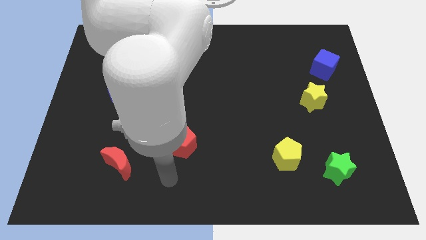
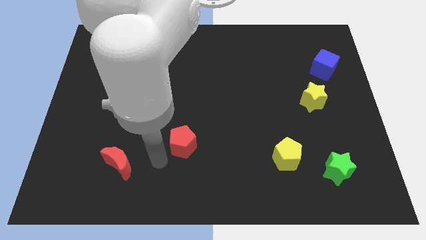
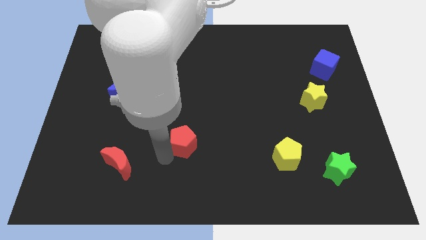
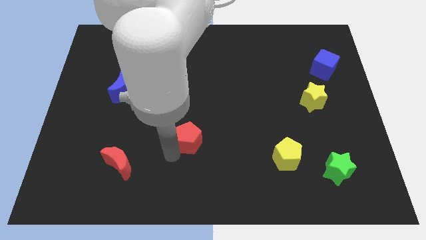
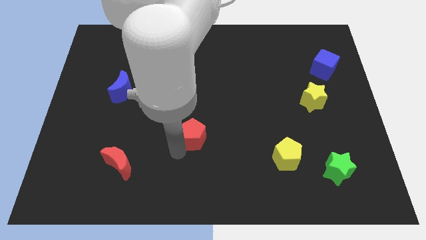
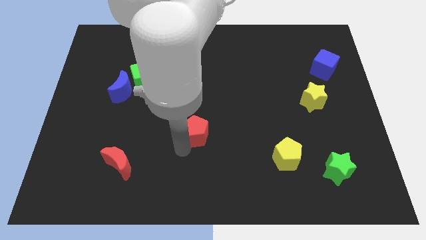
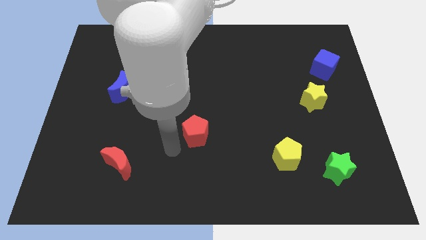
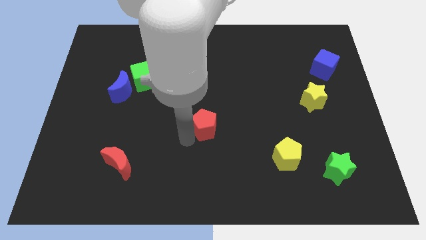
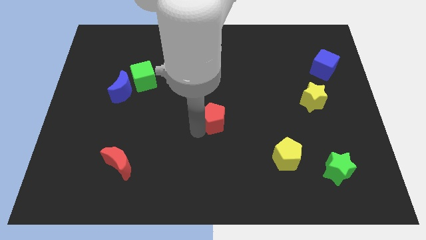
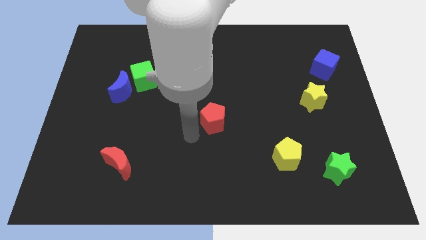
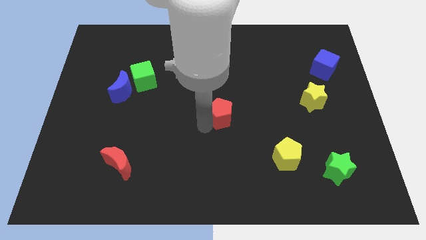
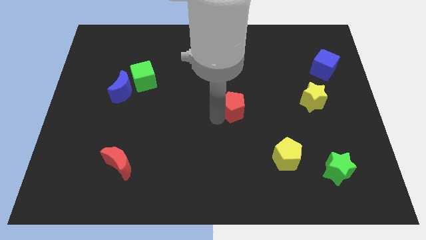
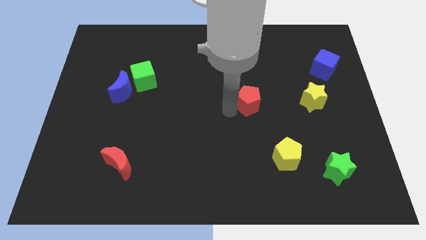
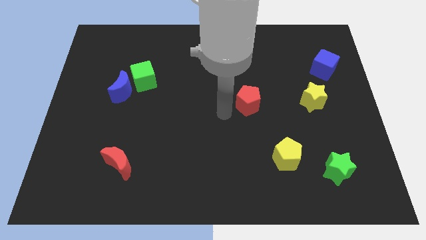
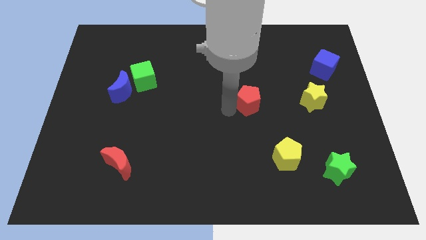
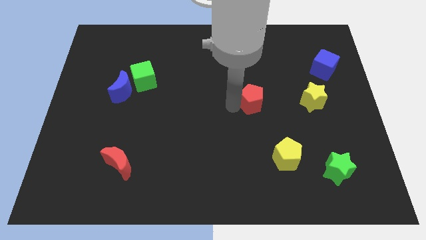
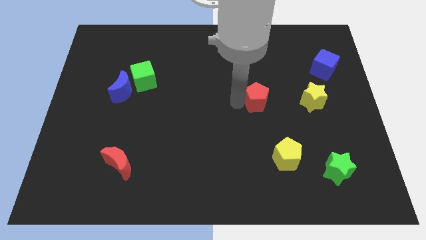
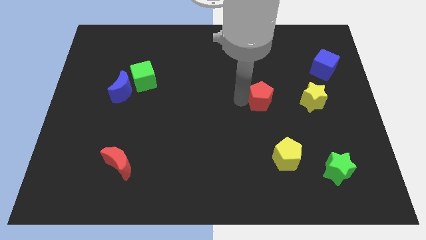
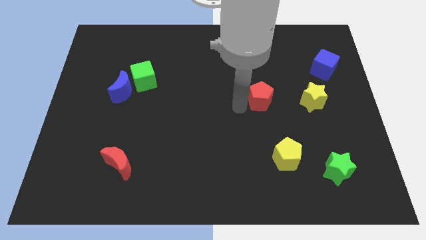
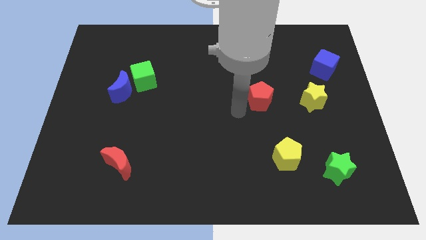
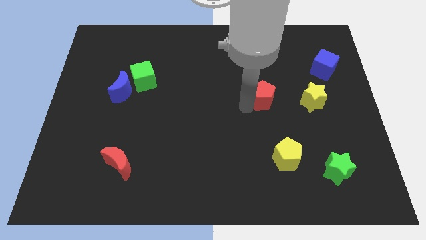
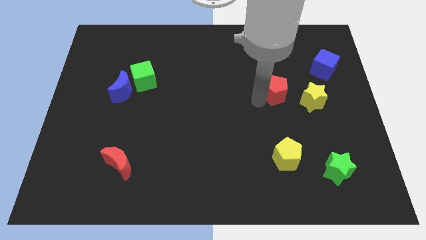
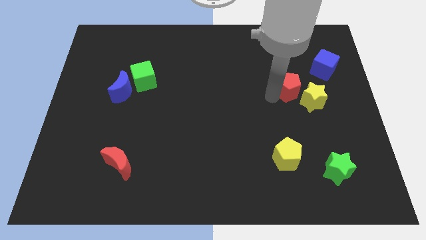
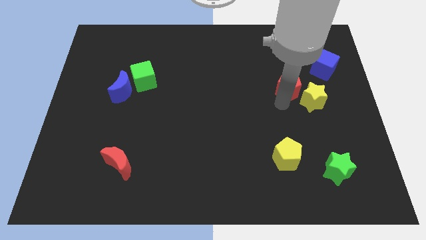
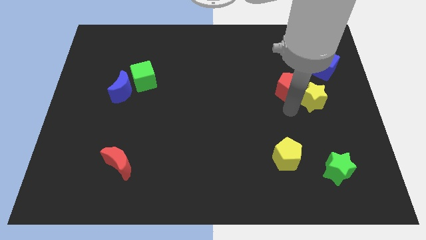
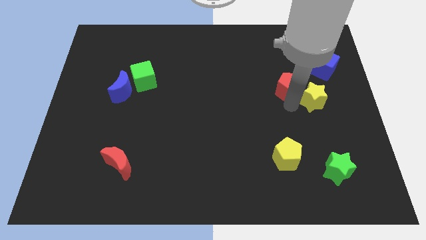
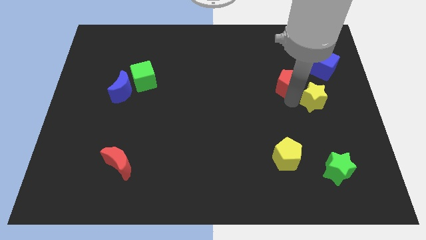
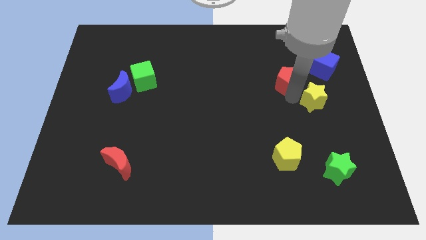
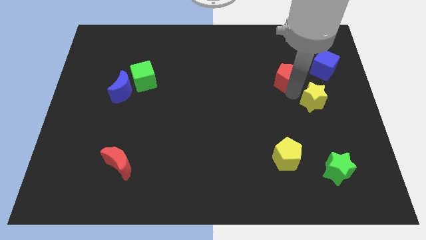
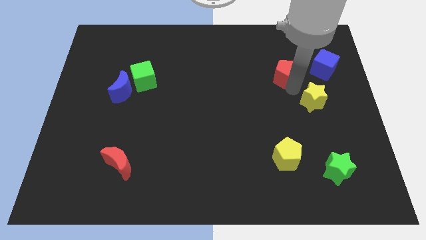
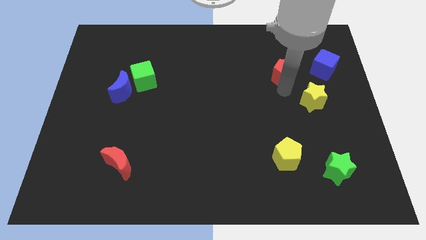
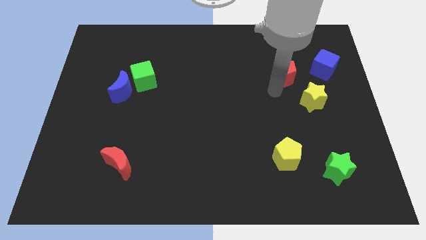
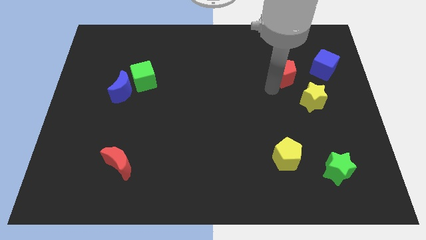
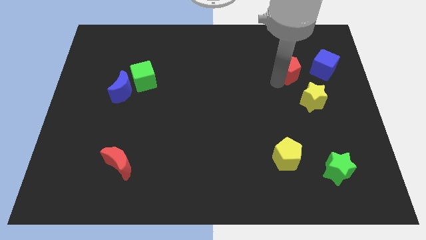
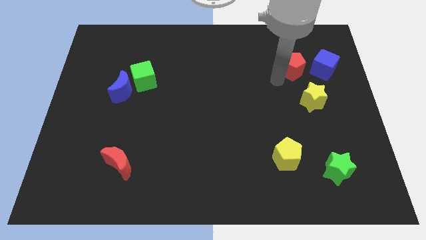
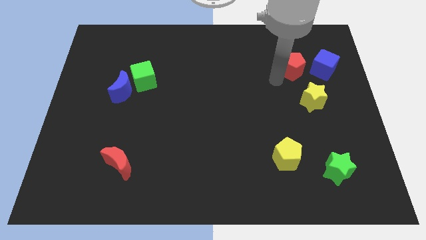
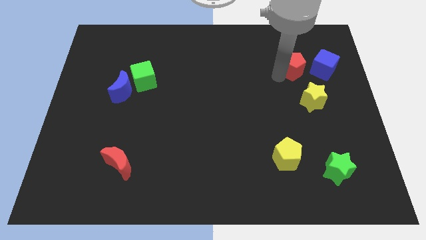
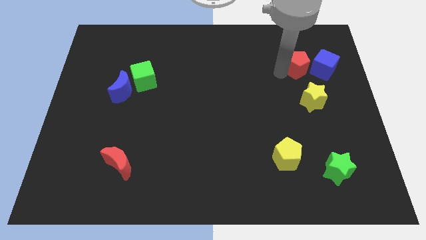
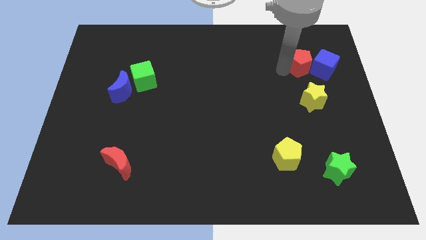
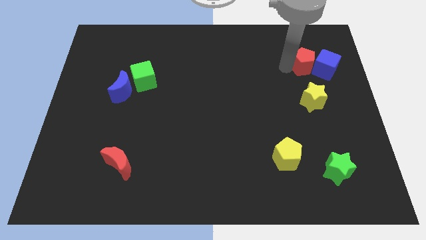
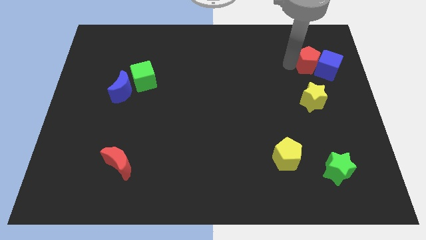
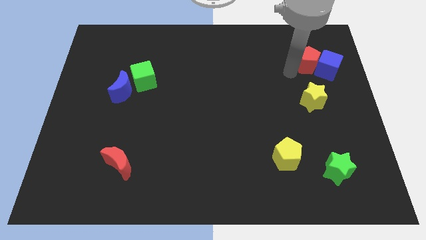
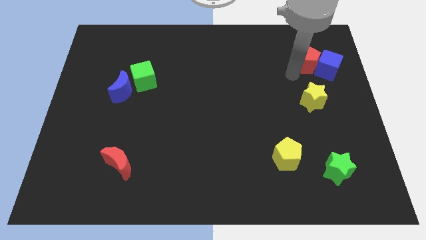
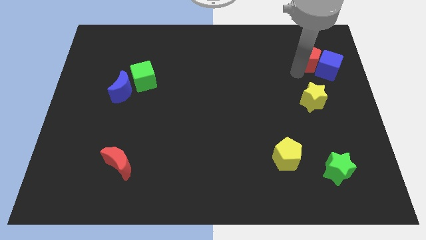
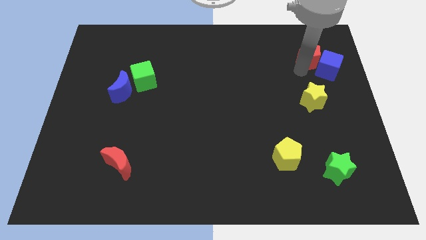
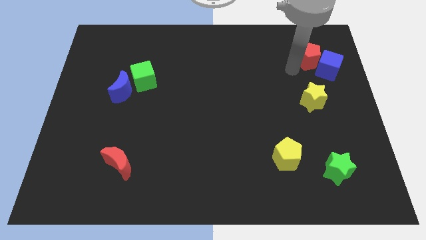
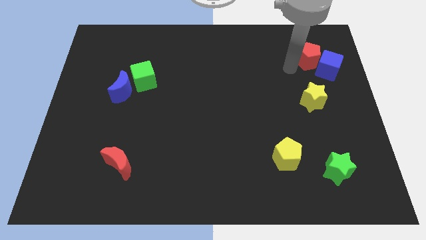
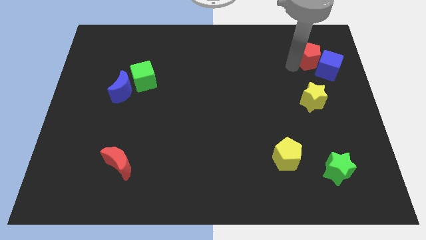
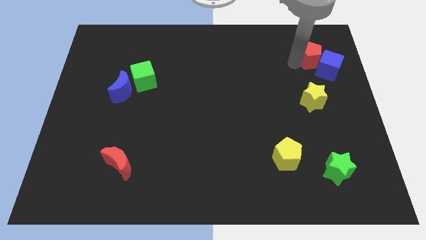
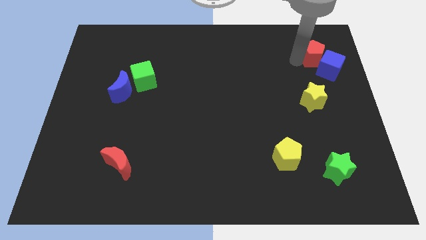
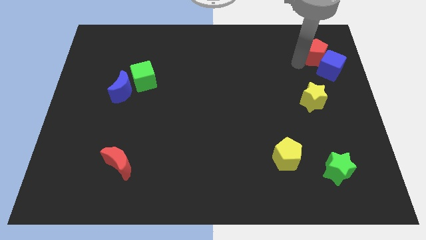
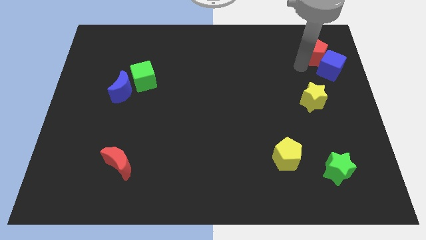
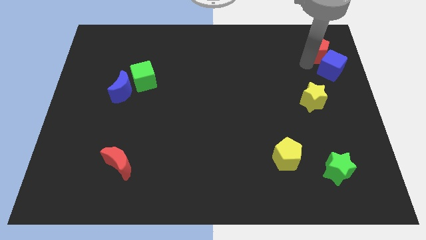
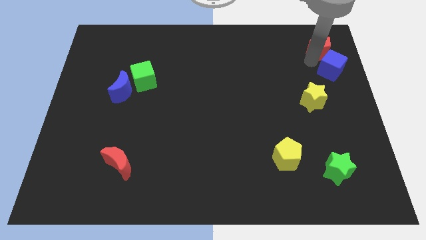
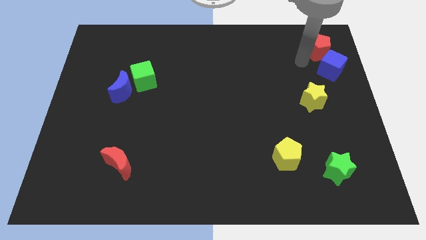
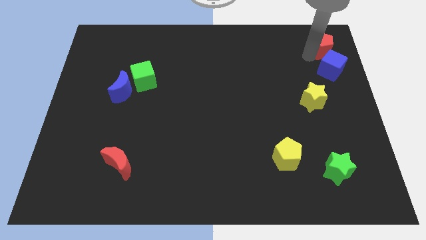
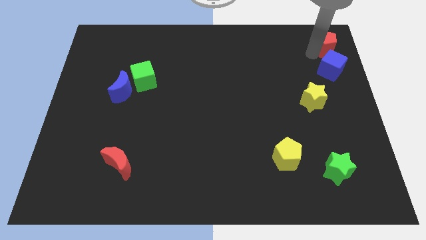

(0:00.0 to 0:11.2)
put the red pentagon to the top right of the board
